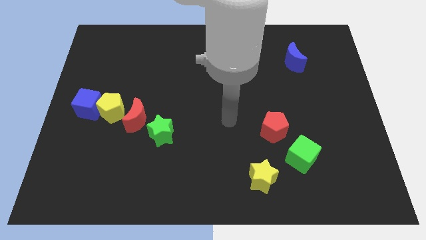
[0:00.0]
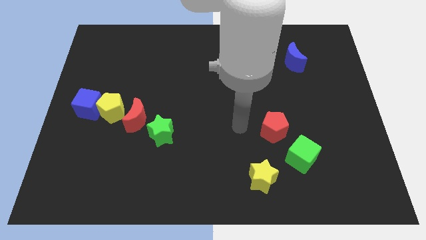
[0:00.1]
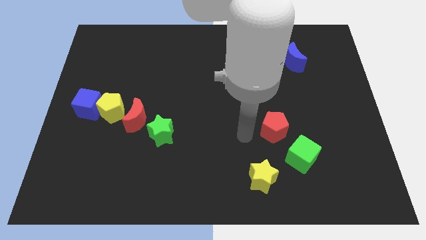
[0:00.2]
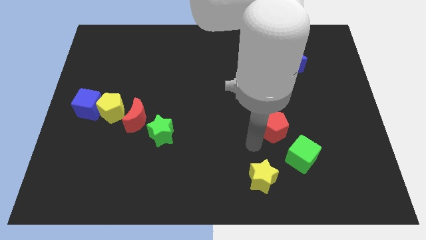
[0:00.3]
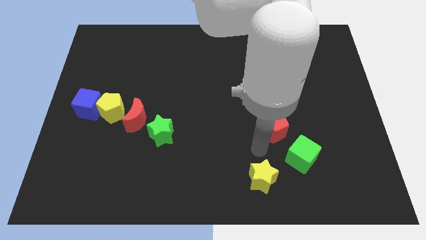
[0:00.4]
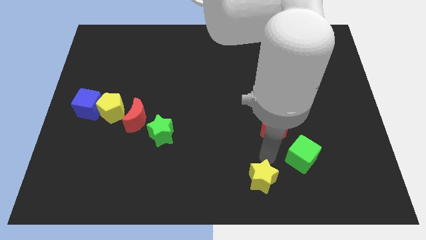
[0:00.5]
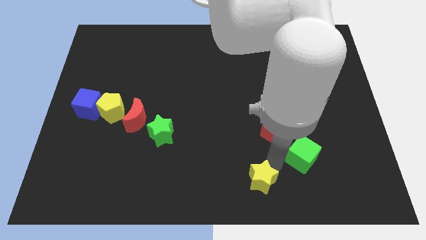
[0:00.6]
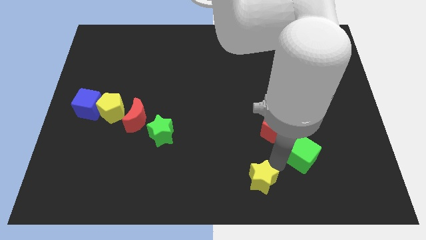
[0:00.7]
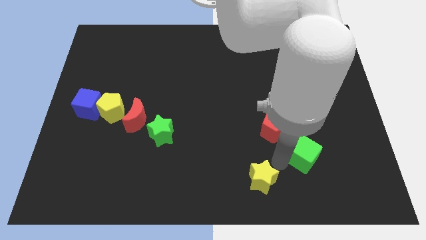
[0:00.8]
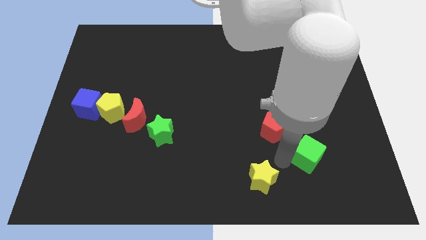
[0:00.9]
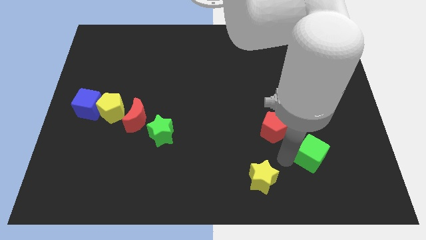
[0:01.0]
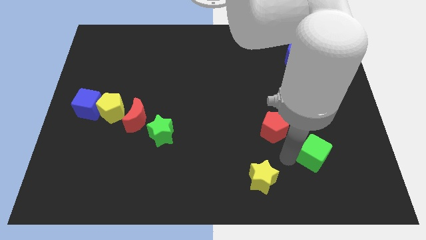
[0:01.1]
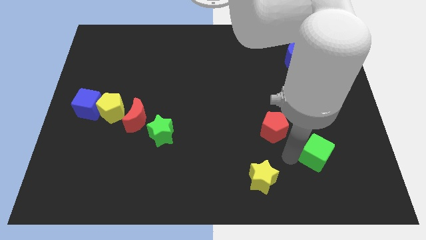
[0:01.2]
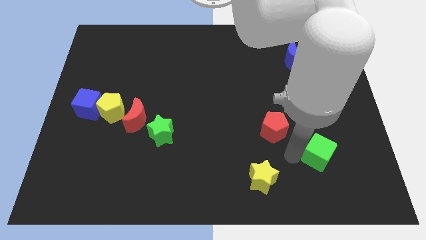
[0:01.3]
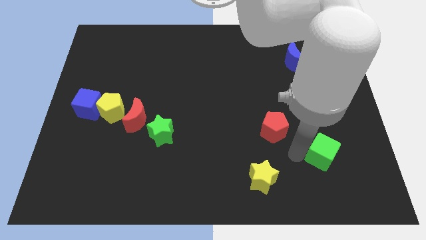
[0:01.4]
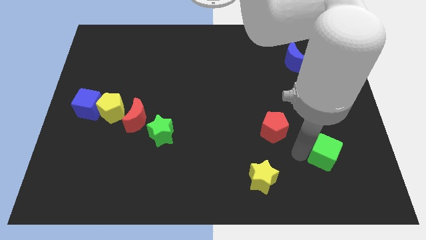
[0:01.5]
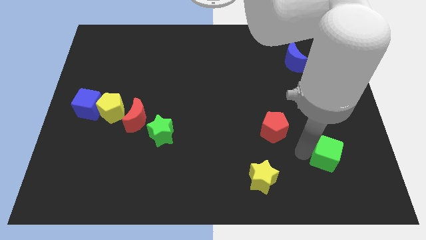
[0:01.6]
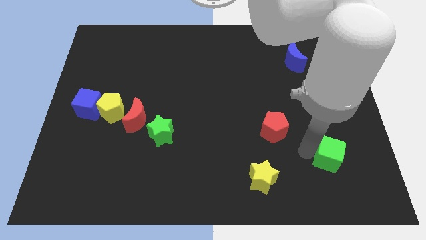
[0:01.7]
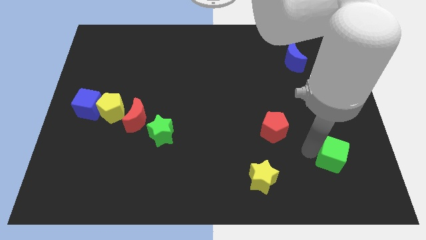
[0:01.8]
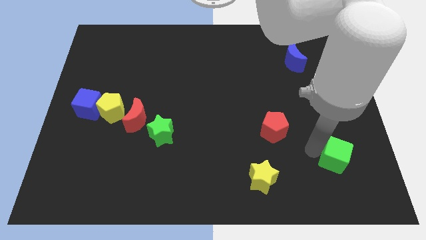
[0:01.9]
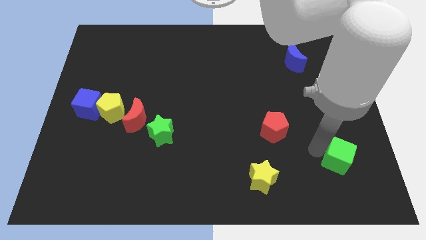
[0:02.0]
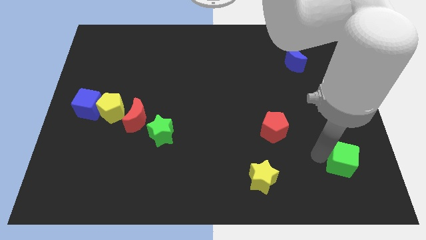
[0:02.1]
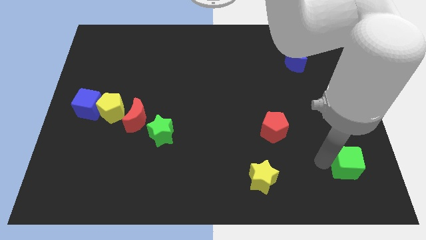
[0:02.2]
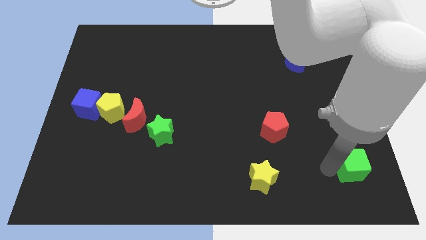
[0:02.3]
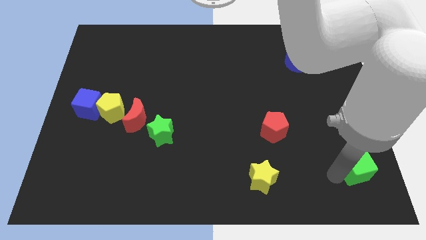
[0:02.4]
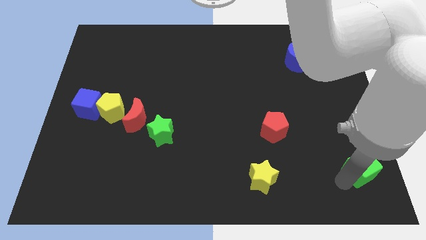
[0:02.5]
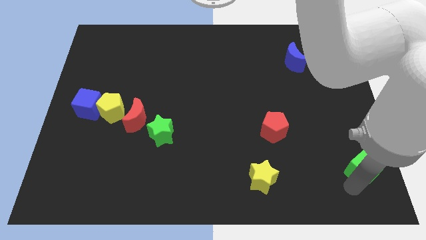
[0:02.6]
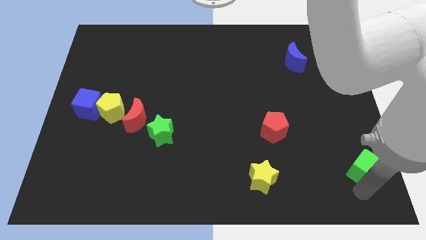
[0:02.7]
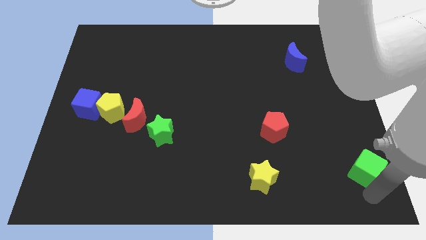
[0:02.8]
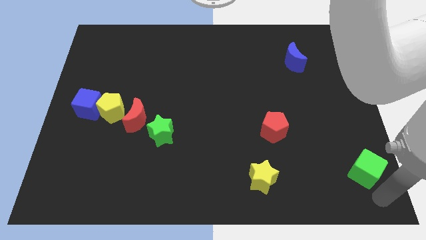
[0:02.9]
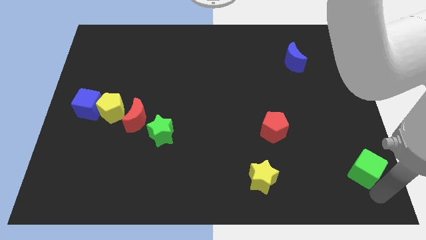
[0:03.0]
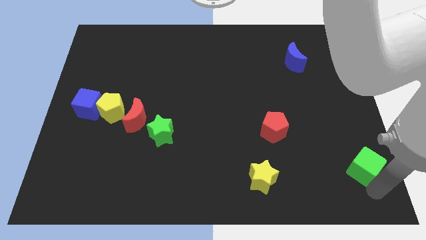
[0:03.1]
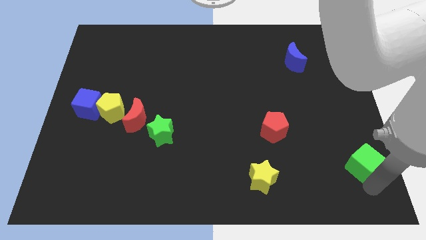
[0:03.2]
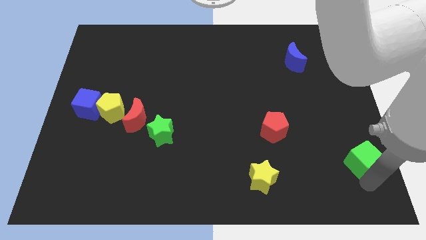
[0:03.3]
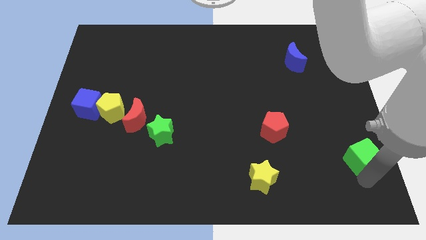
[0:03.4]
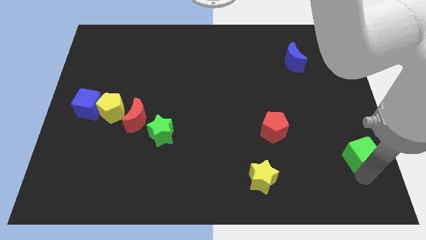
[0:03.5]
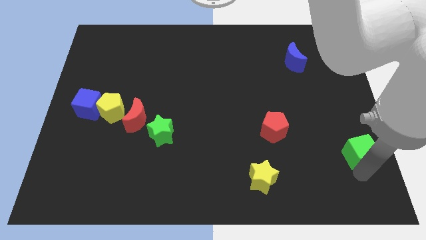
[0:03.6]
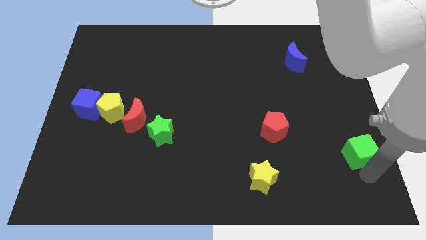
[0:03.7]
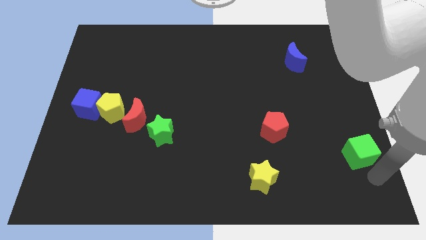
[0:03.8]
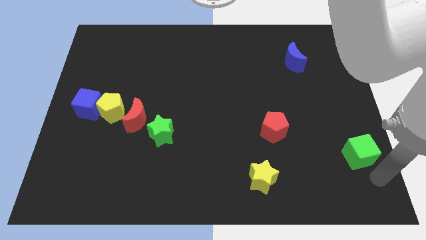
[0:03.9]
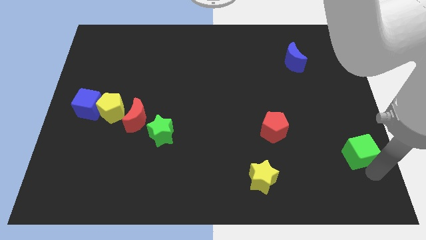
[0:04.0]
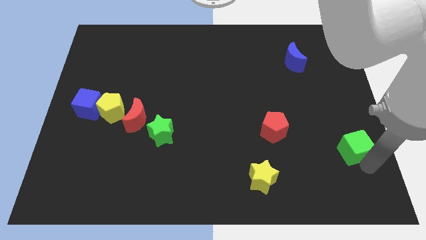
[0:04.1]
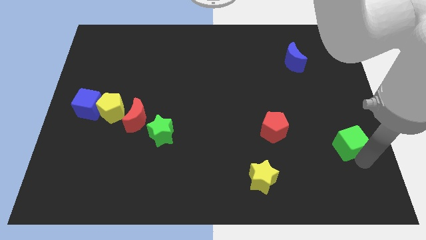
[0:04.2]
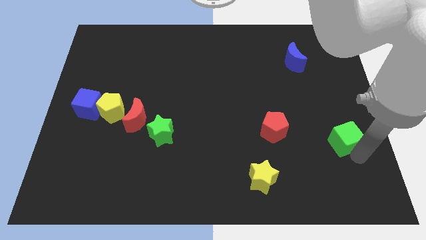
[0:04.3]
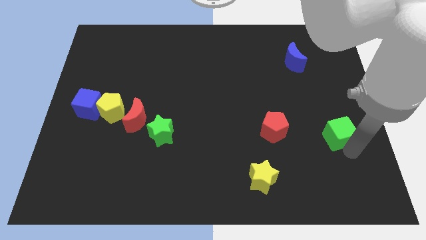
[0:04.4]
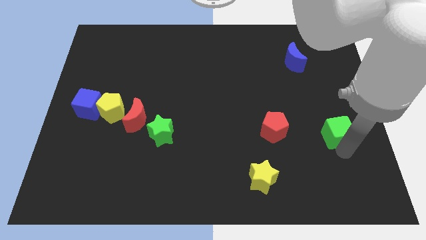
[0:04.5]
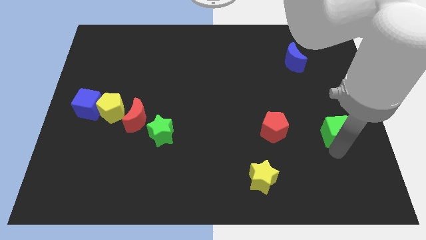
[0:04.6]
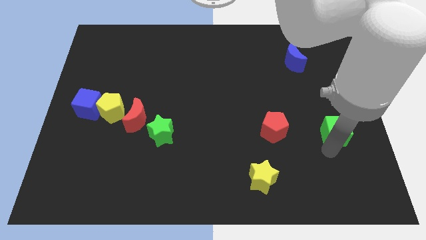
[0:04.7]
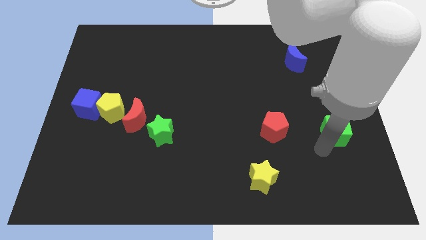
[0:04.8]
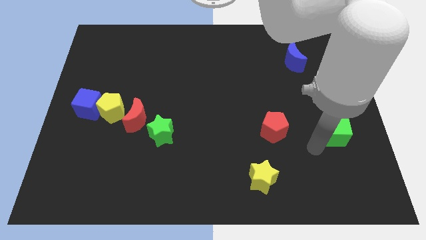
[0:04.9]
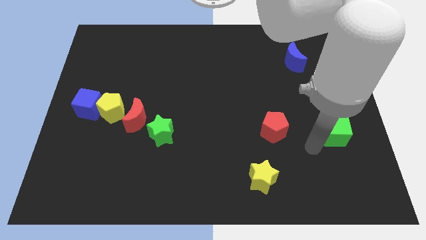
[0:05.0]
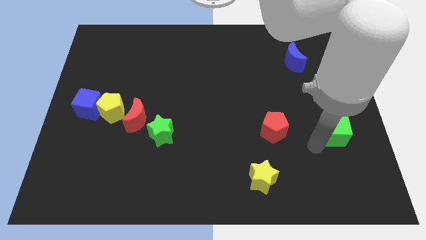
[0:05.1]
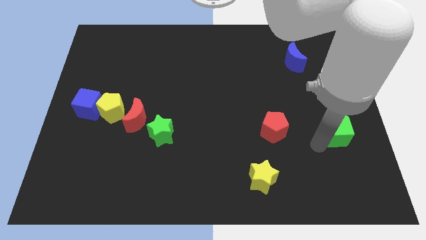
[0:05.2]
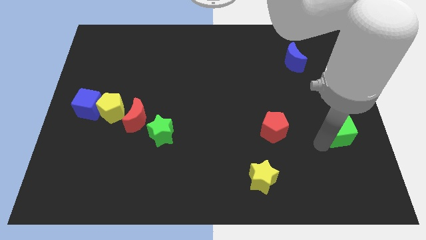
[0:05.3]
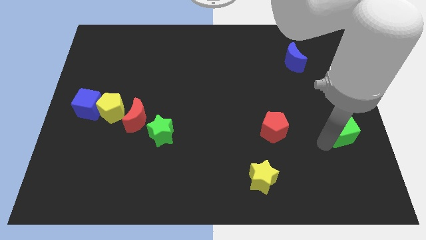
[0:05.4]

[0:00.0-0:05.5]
put the green cube to the center right

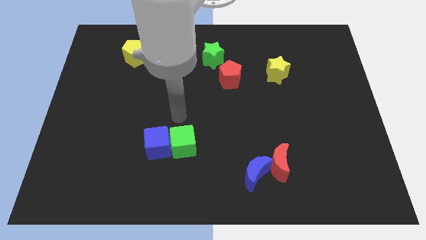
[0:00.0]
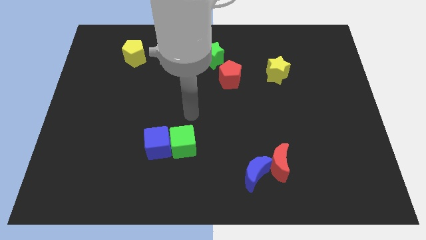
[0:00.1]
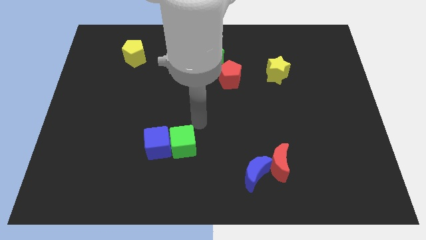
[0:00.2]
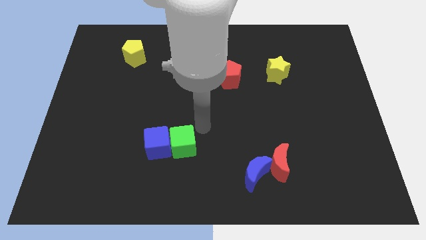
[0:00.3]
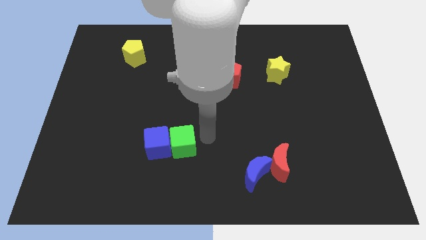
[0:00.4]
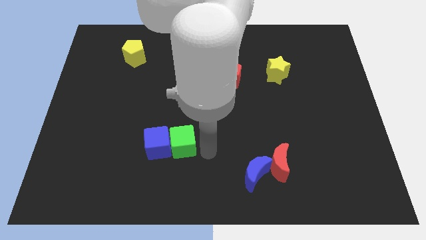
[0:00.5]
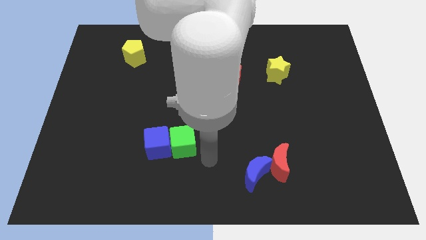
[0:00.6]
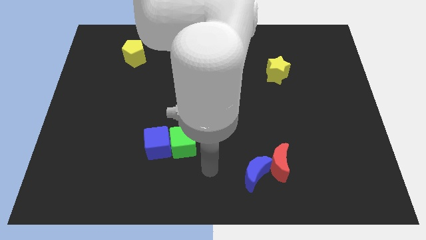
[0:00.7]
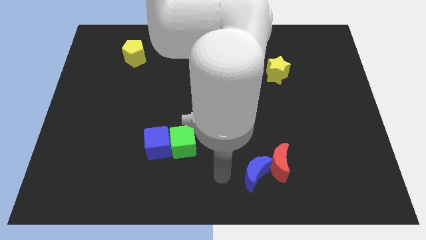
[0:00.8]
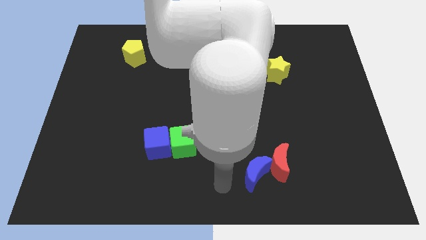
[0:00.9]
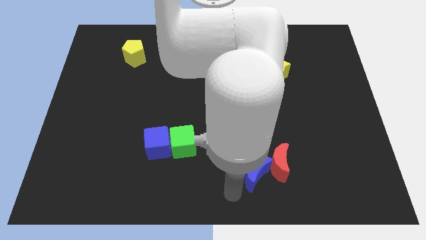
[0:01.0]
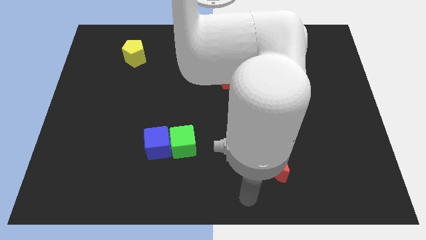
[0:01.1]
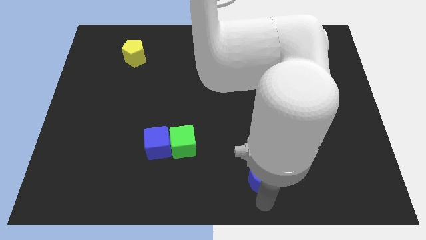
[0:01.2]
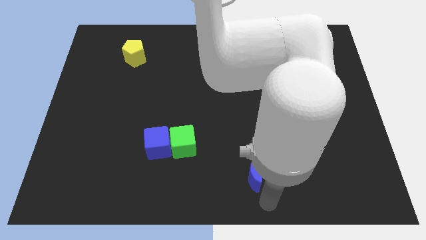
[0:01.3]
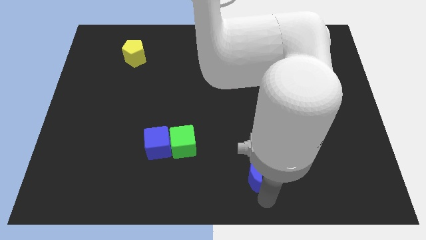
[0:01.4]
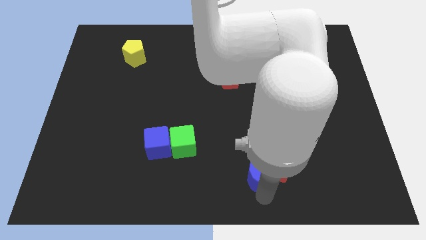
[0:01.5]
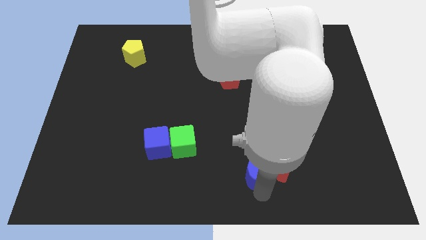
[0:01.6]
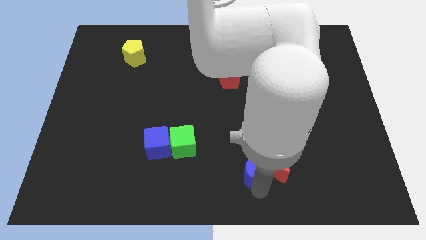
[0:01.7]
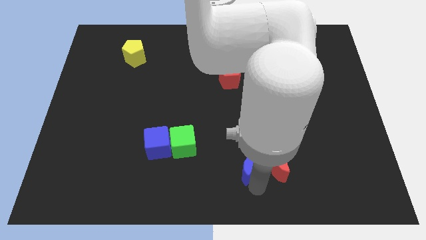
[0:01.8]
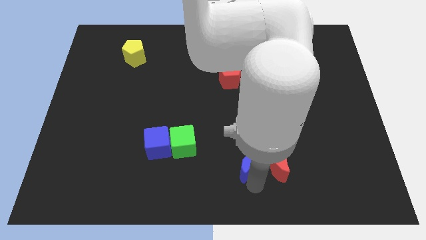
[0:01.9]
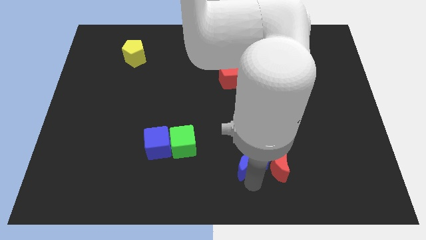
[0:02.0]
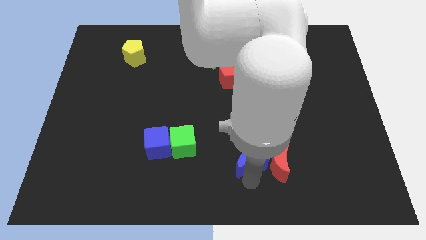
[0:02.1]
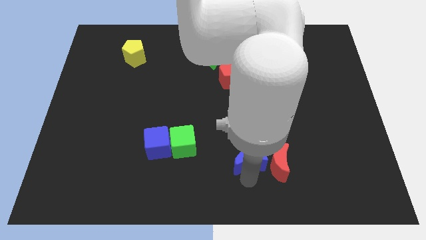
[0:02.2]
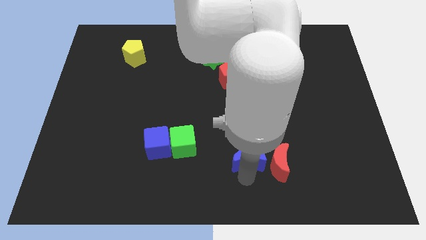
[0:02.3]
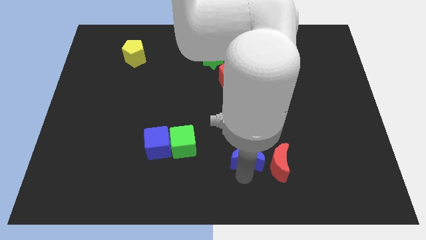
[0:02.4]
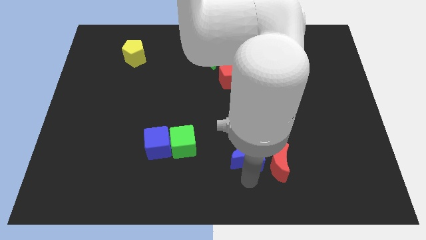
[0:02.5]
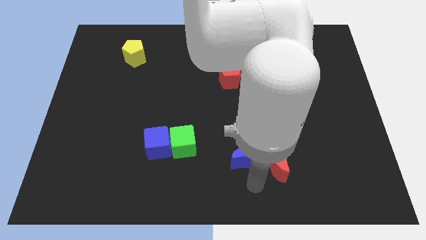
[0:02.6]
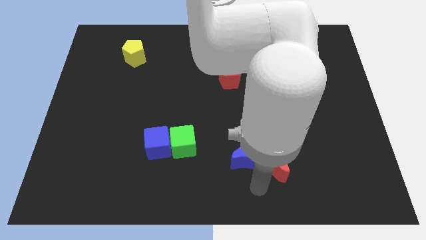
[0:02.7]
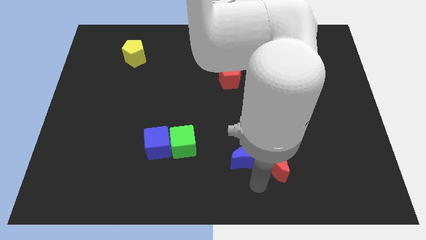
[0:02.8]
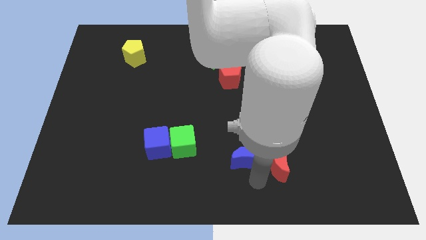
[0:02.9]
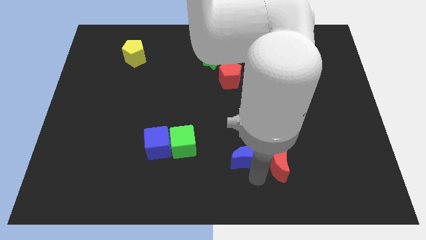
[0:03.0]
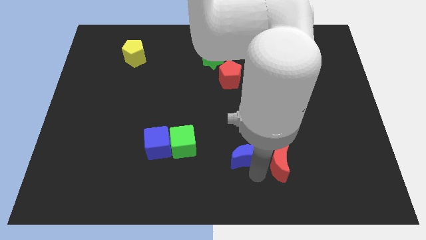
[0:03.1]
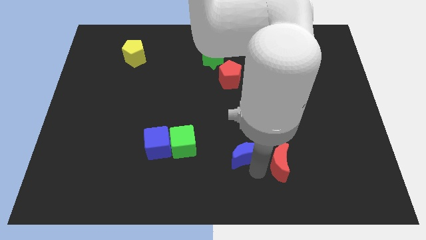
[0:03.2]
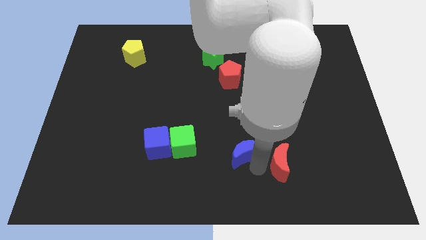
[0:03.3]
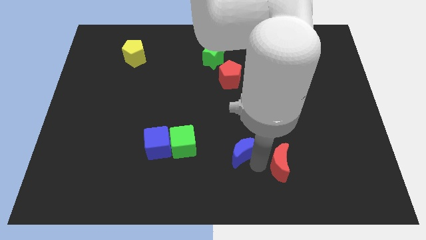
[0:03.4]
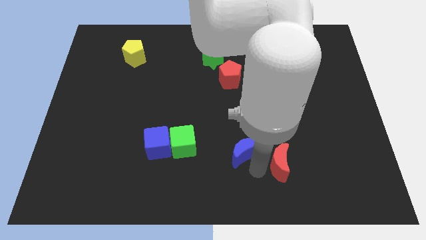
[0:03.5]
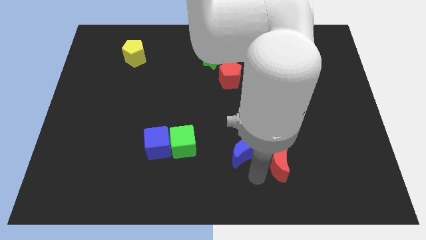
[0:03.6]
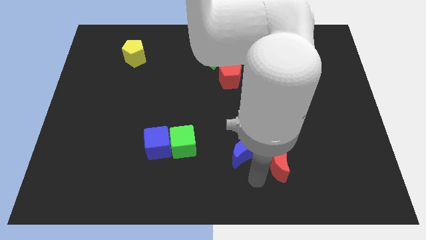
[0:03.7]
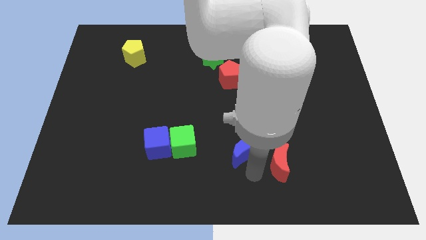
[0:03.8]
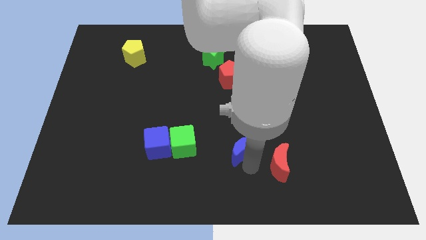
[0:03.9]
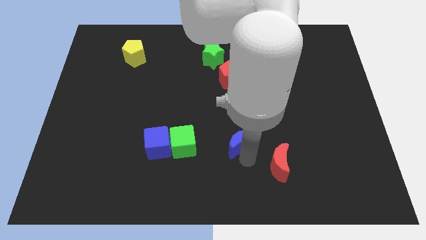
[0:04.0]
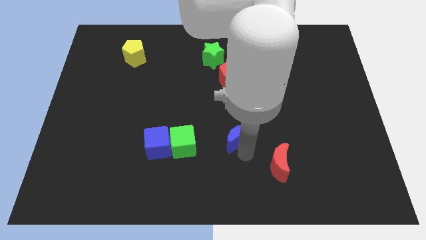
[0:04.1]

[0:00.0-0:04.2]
move the blue moon to the middle
